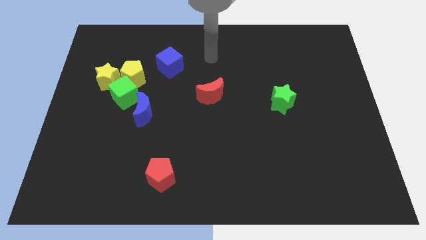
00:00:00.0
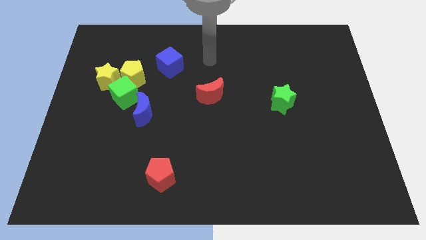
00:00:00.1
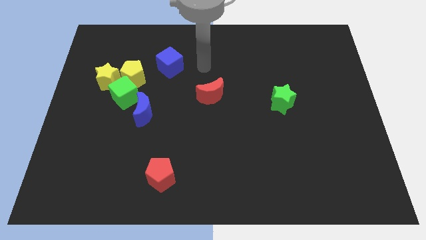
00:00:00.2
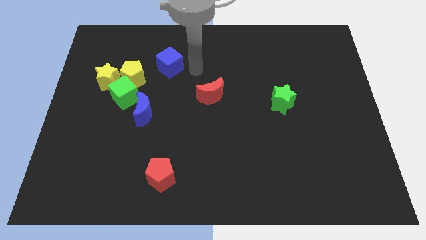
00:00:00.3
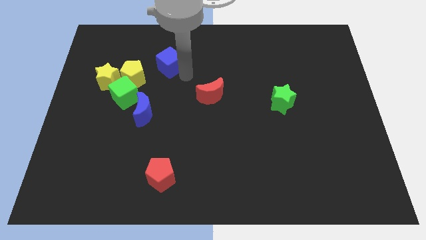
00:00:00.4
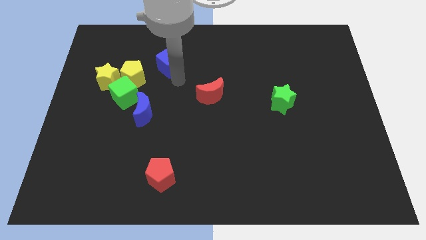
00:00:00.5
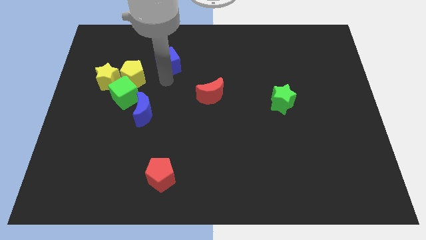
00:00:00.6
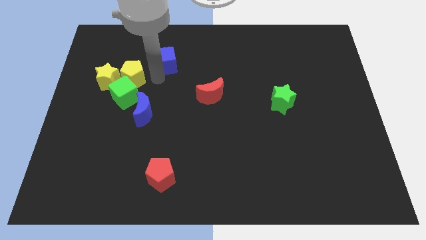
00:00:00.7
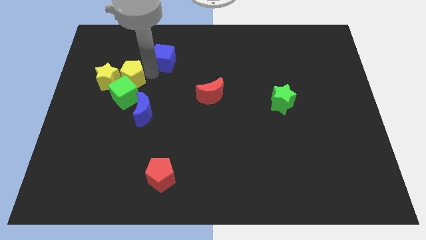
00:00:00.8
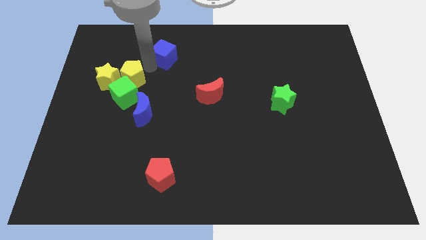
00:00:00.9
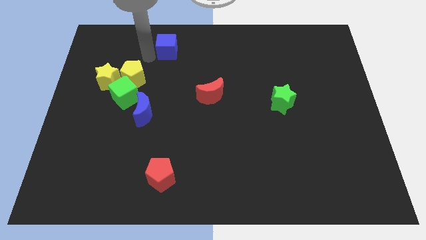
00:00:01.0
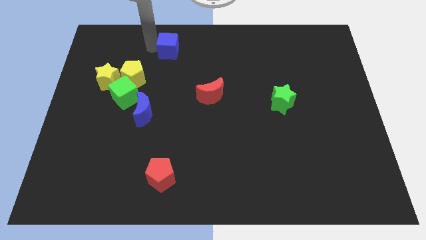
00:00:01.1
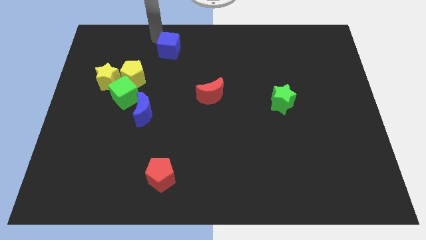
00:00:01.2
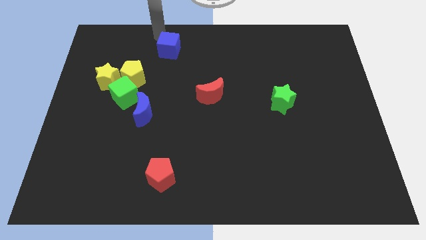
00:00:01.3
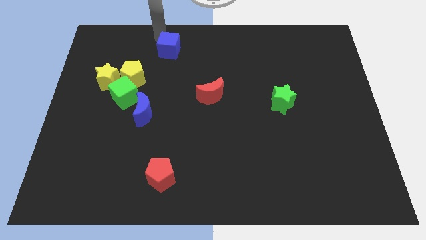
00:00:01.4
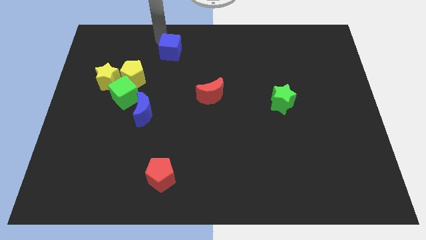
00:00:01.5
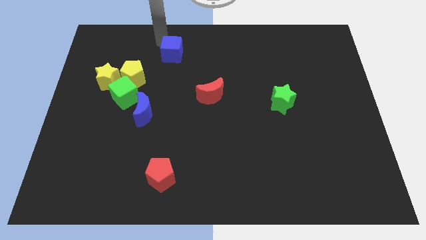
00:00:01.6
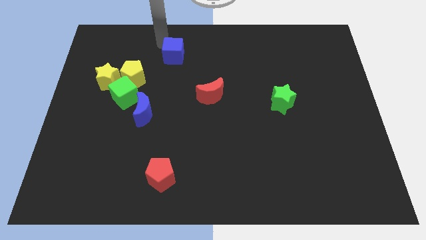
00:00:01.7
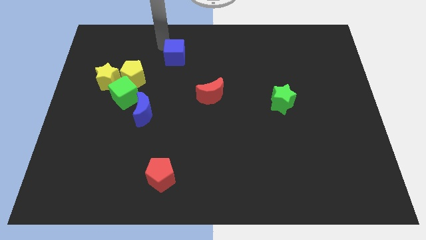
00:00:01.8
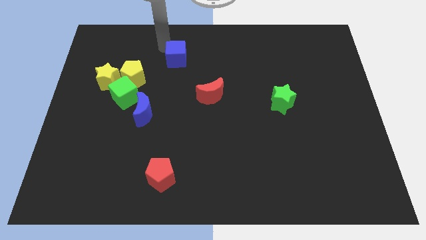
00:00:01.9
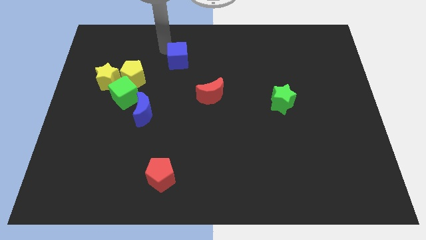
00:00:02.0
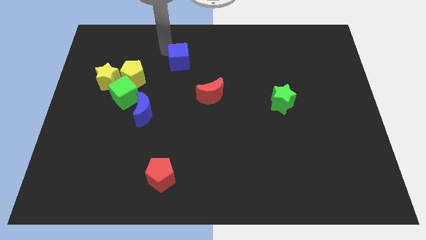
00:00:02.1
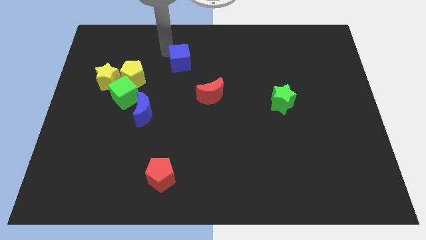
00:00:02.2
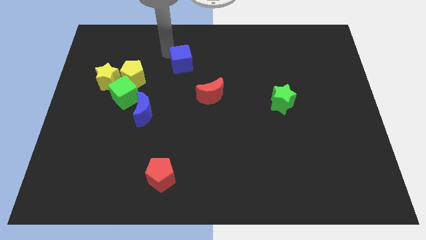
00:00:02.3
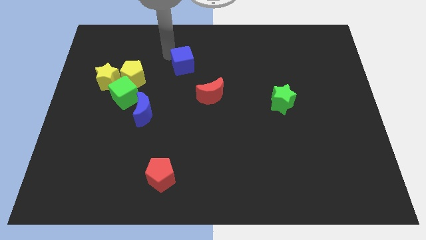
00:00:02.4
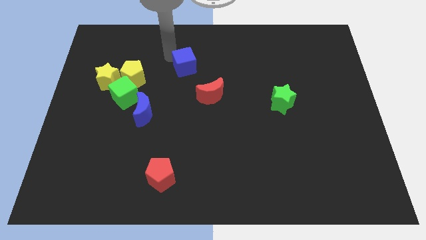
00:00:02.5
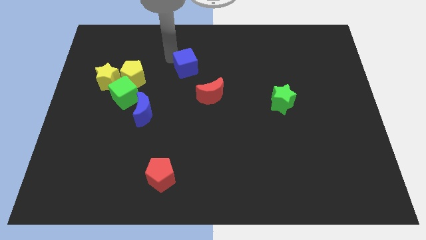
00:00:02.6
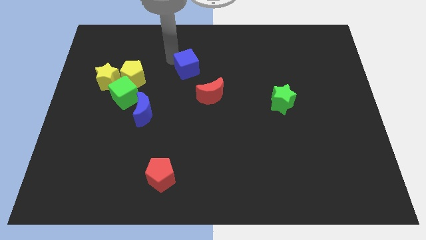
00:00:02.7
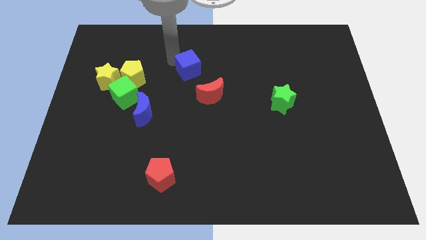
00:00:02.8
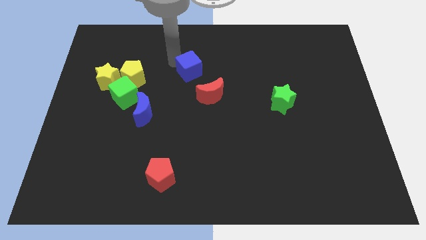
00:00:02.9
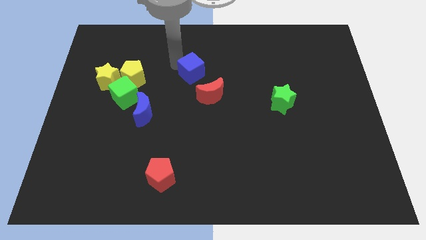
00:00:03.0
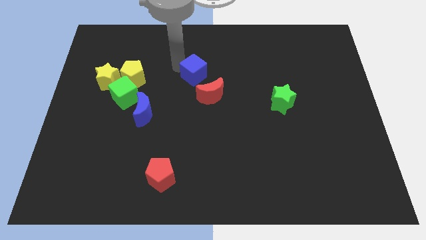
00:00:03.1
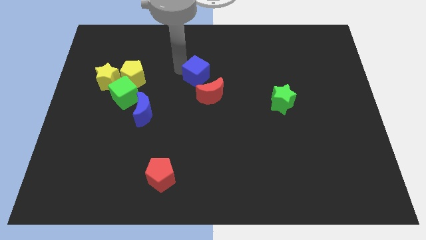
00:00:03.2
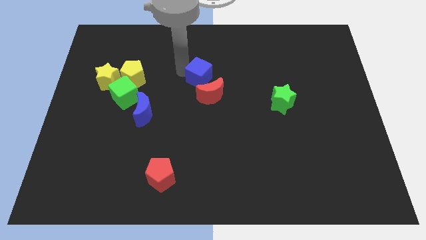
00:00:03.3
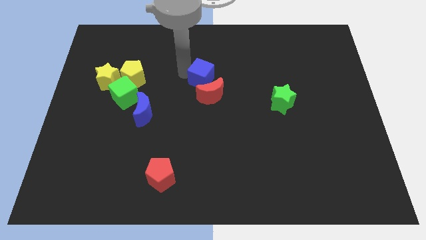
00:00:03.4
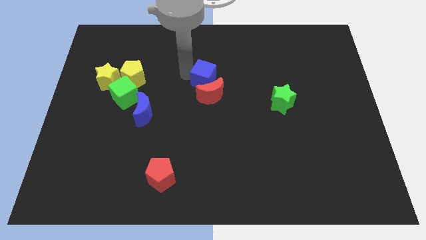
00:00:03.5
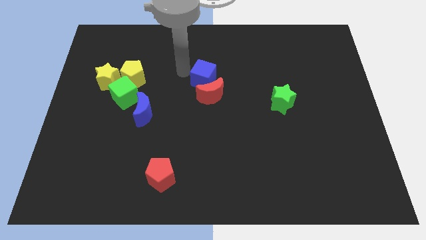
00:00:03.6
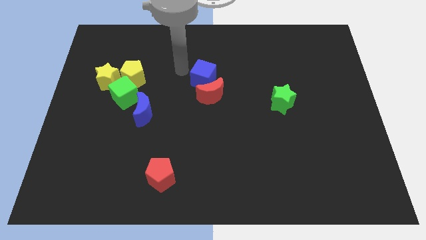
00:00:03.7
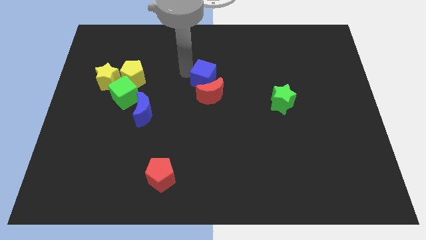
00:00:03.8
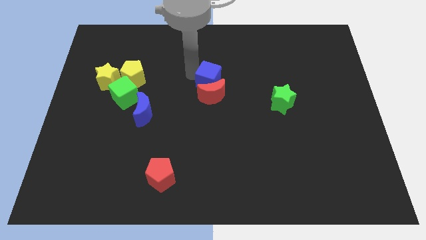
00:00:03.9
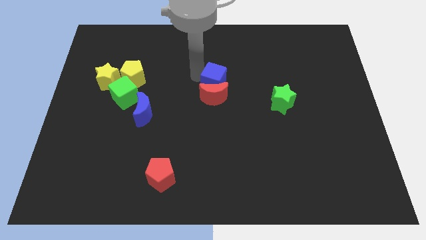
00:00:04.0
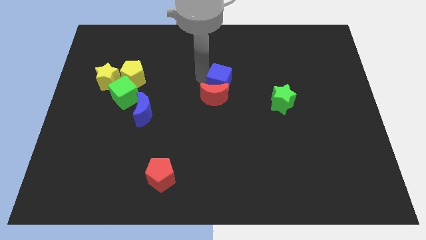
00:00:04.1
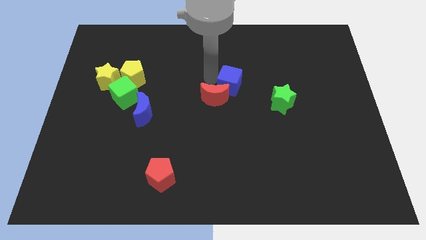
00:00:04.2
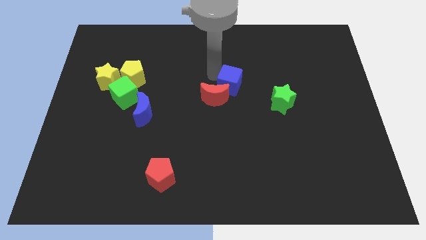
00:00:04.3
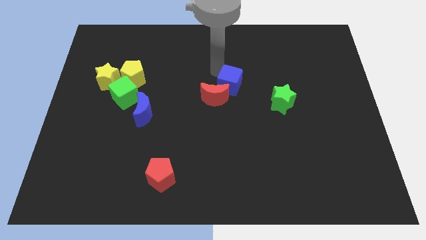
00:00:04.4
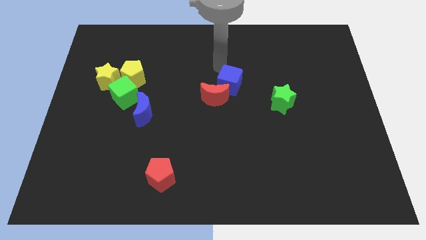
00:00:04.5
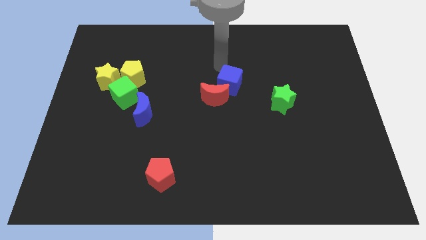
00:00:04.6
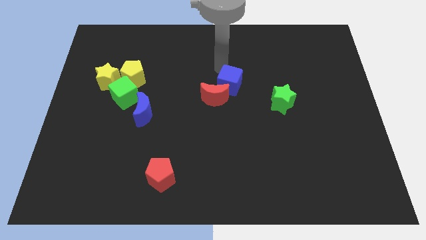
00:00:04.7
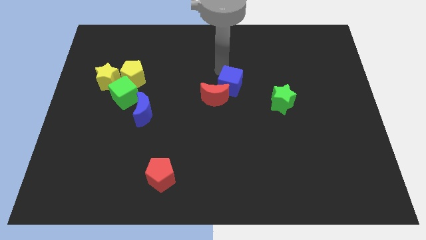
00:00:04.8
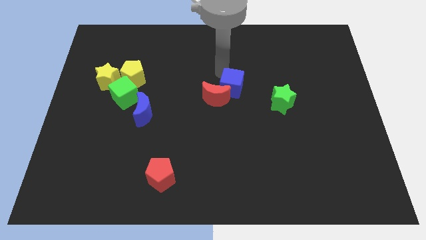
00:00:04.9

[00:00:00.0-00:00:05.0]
slide the blue cube left of the green star

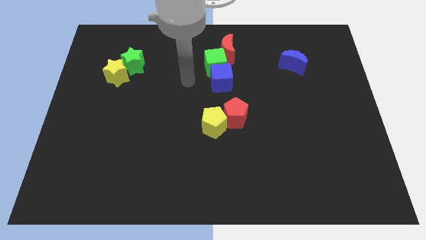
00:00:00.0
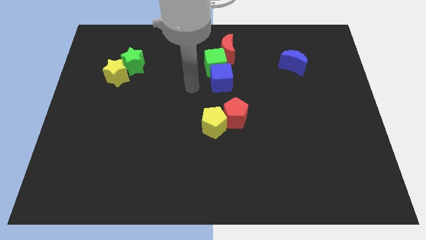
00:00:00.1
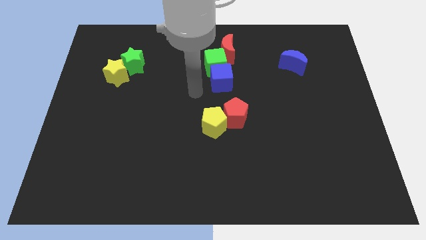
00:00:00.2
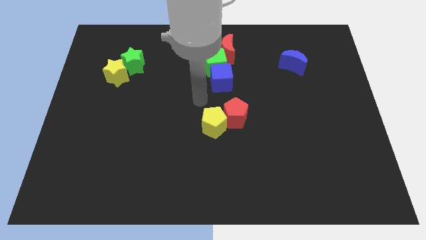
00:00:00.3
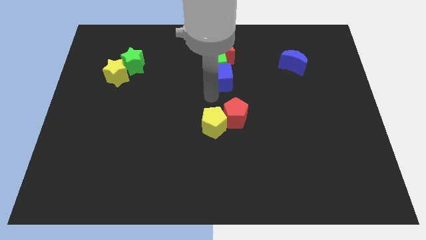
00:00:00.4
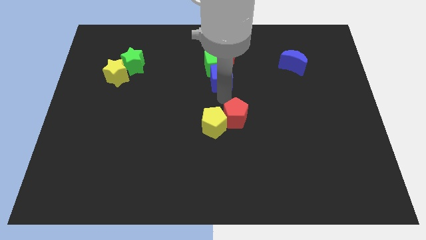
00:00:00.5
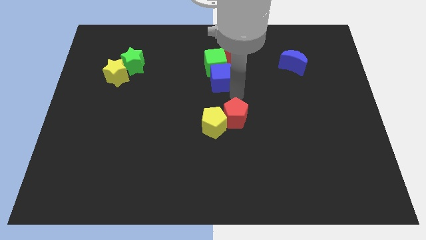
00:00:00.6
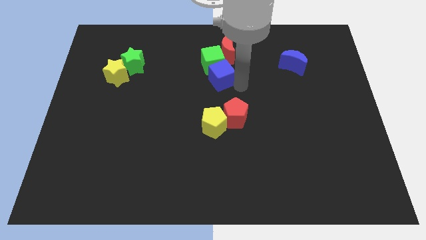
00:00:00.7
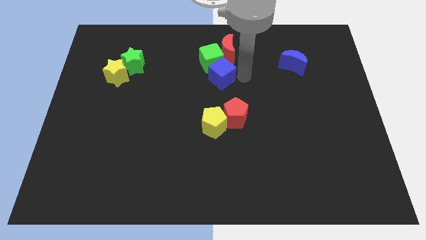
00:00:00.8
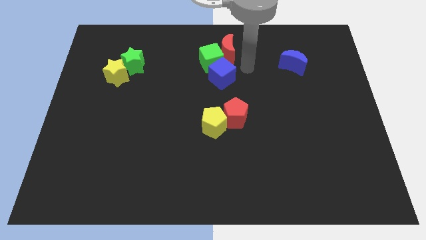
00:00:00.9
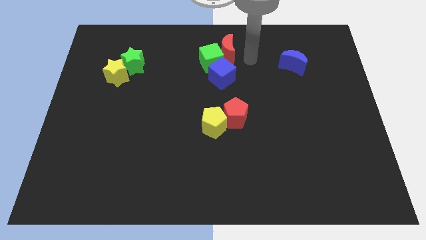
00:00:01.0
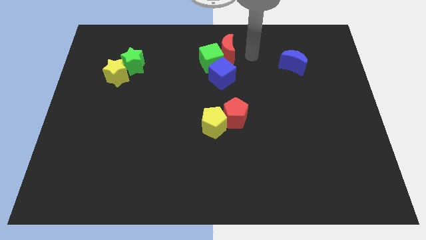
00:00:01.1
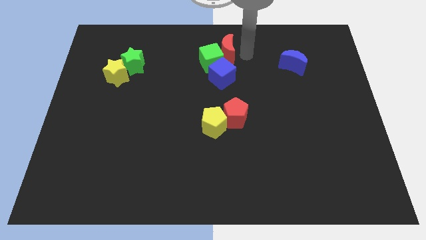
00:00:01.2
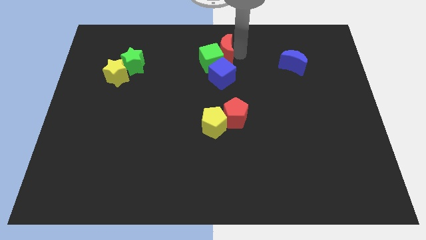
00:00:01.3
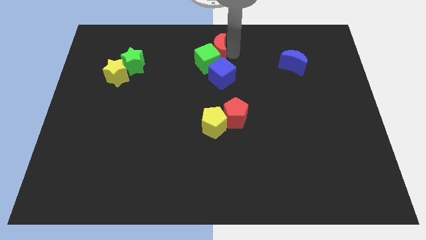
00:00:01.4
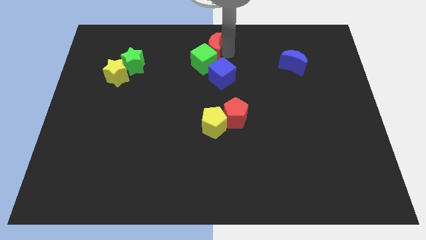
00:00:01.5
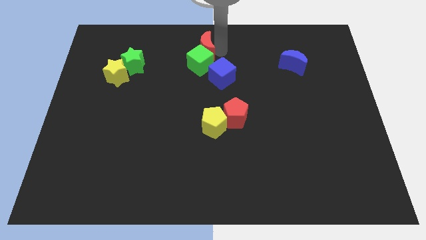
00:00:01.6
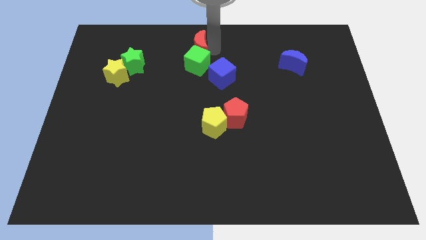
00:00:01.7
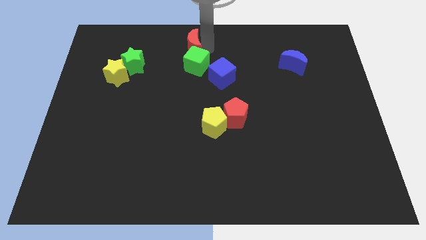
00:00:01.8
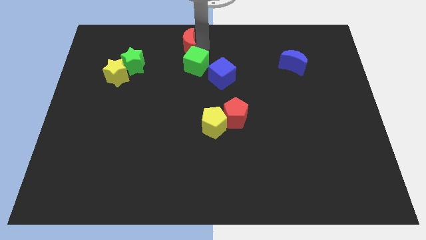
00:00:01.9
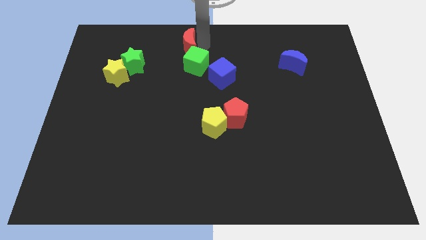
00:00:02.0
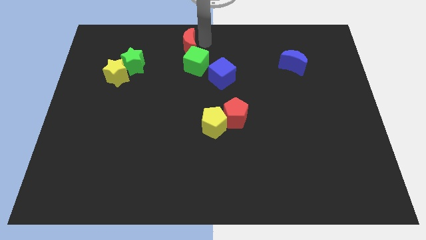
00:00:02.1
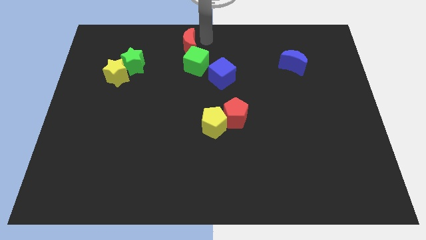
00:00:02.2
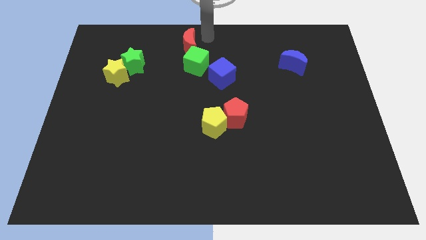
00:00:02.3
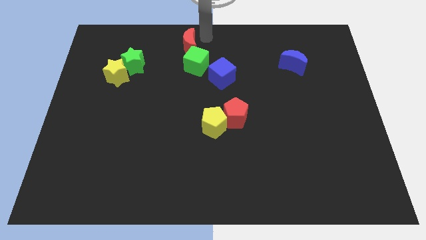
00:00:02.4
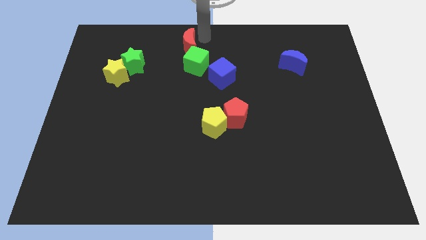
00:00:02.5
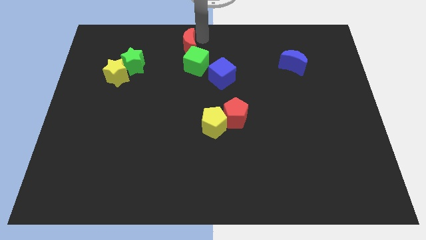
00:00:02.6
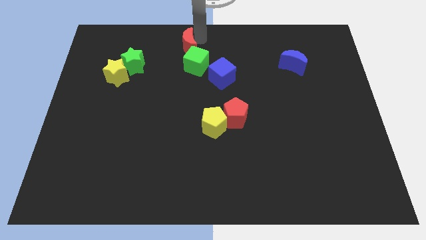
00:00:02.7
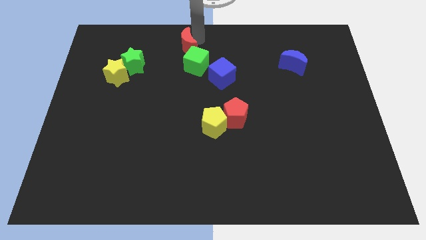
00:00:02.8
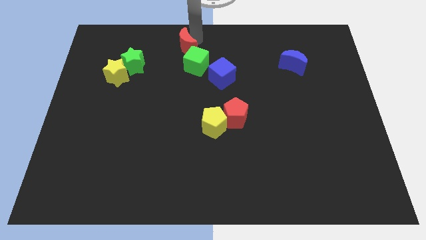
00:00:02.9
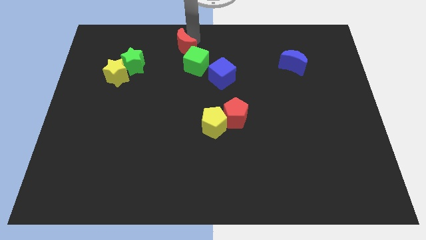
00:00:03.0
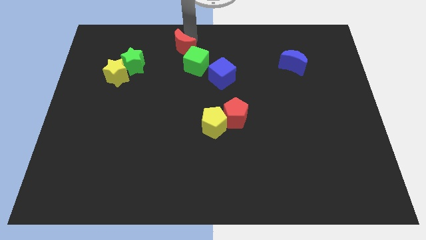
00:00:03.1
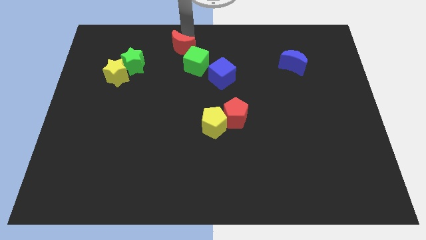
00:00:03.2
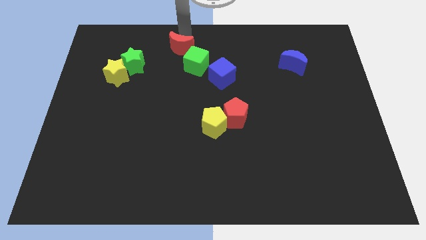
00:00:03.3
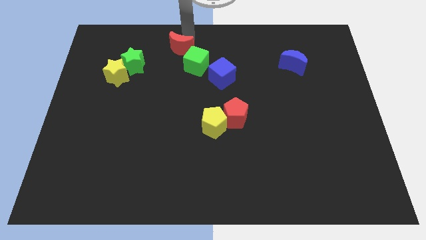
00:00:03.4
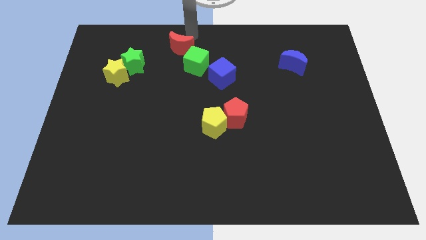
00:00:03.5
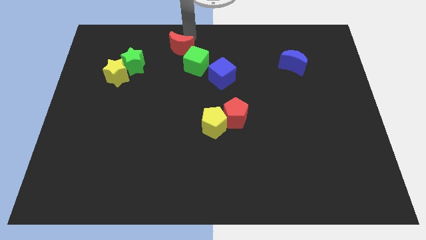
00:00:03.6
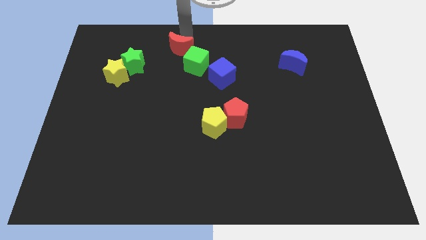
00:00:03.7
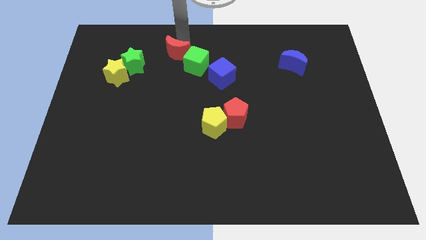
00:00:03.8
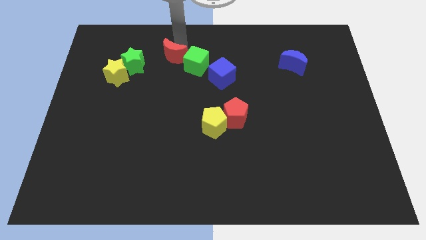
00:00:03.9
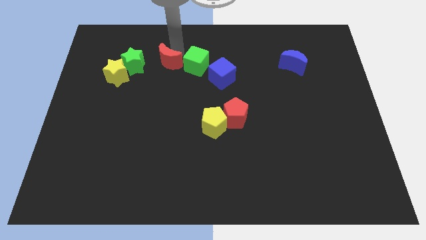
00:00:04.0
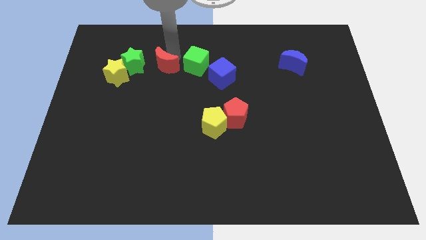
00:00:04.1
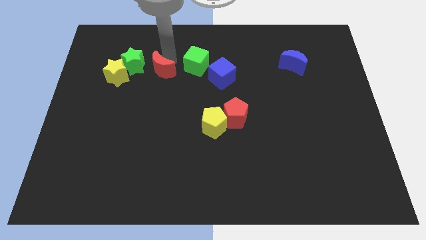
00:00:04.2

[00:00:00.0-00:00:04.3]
move the red moon diagonally down and to the right of the green star
